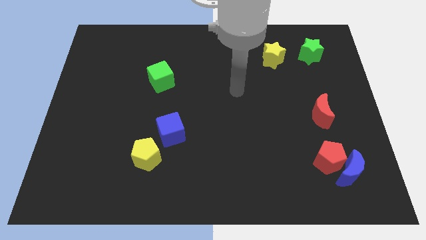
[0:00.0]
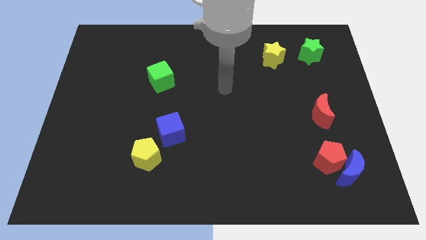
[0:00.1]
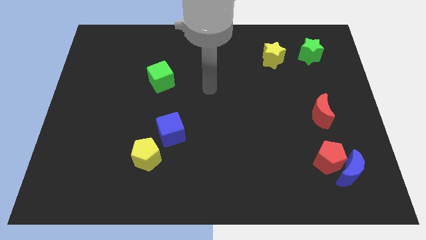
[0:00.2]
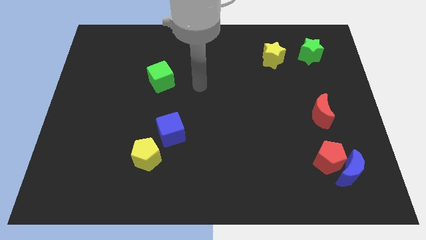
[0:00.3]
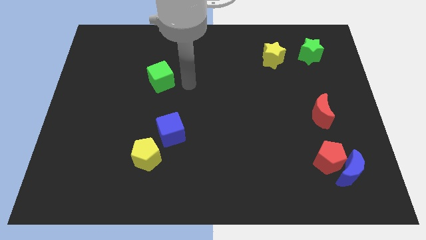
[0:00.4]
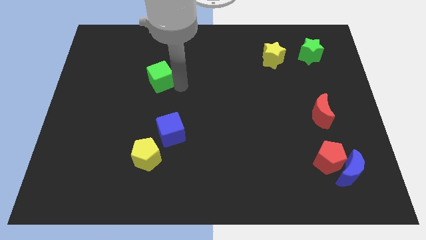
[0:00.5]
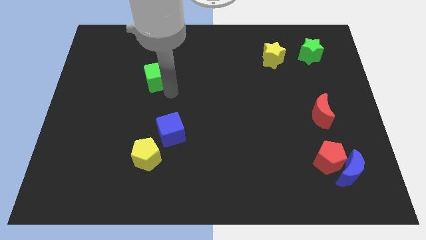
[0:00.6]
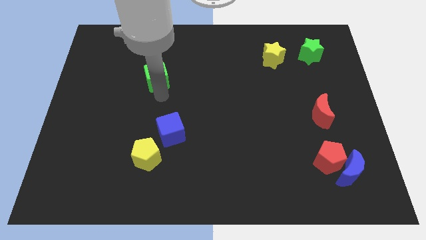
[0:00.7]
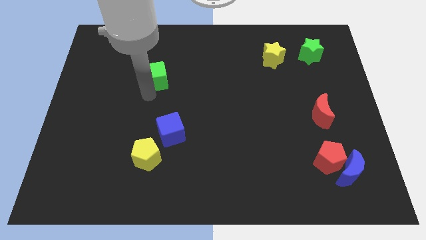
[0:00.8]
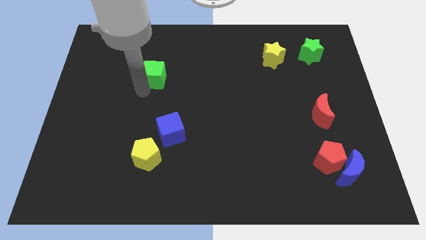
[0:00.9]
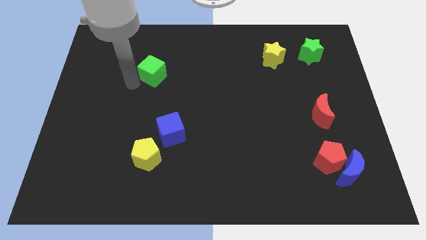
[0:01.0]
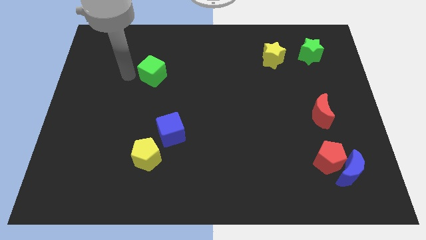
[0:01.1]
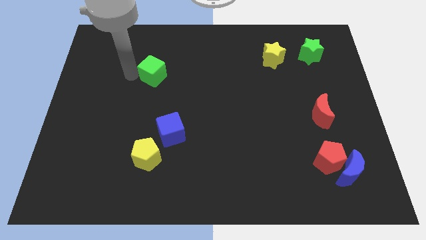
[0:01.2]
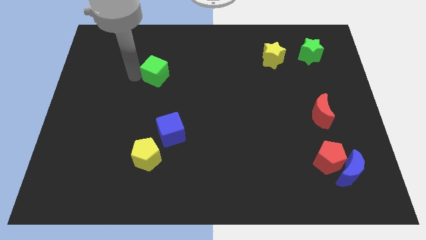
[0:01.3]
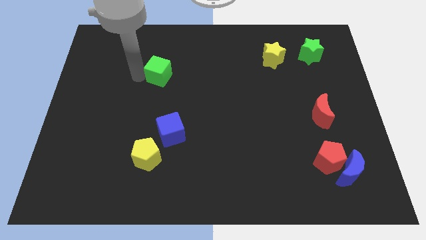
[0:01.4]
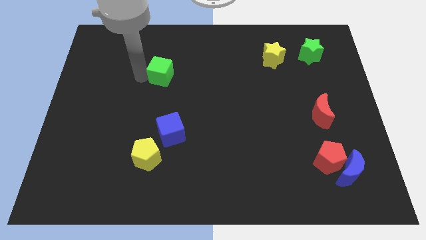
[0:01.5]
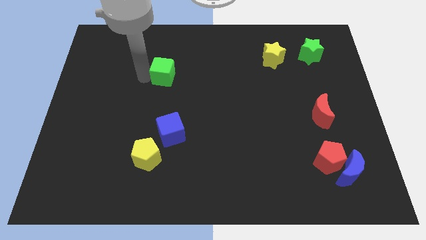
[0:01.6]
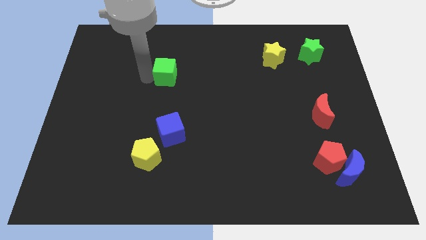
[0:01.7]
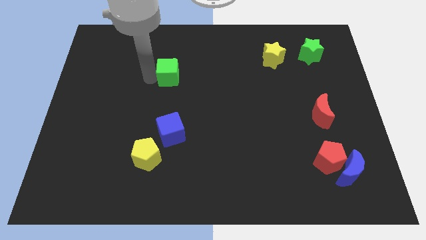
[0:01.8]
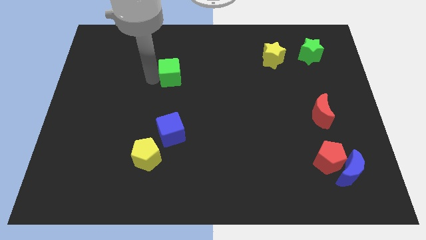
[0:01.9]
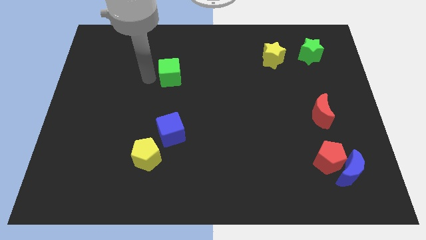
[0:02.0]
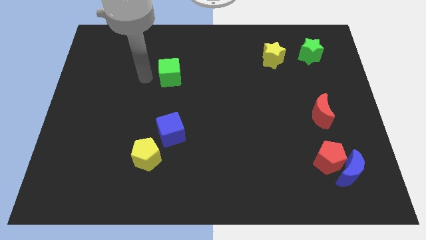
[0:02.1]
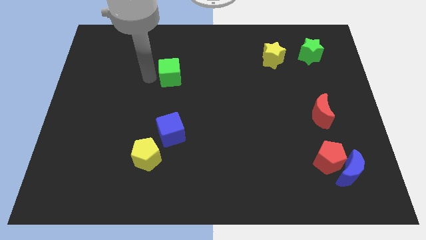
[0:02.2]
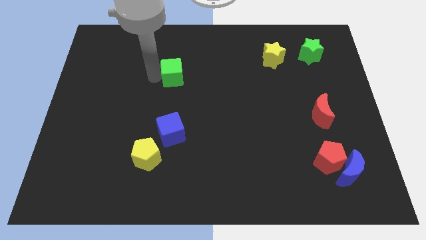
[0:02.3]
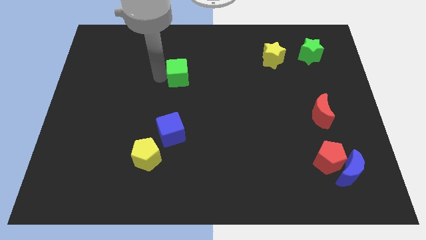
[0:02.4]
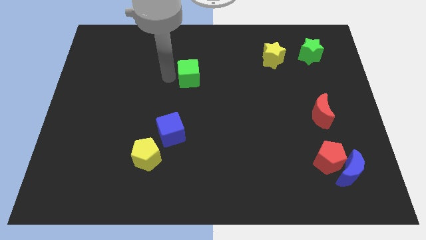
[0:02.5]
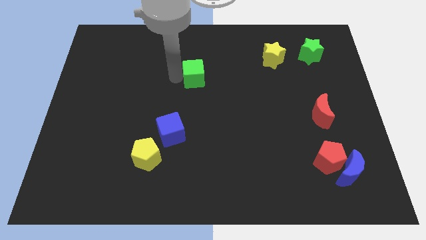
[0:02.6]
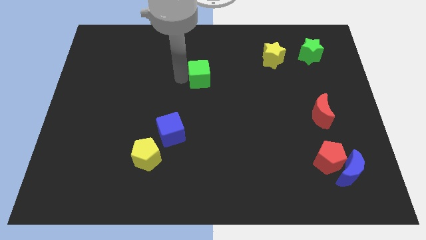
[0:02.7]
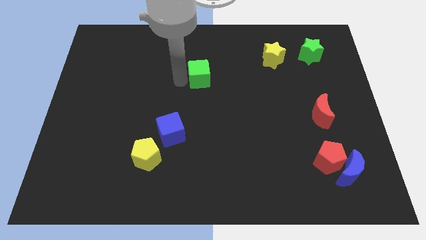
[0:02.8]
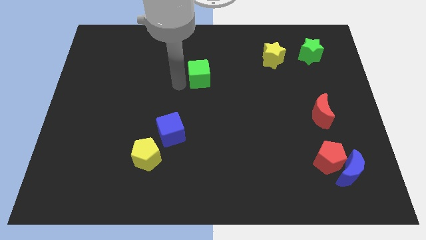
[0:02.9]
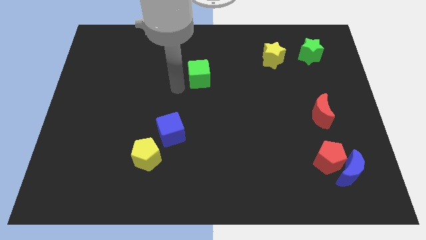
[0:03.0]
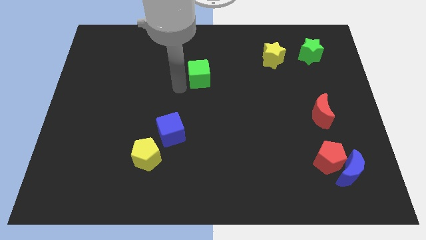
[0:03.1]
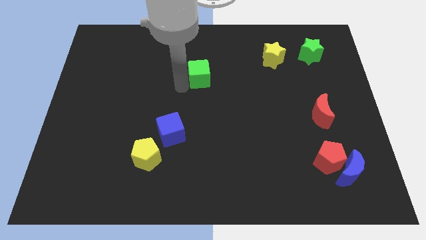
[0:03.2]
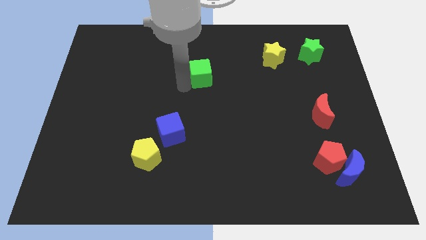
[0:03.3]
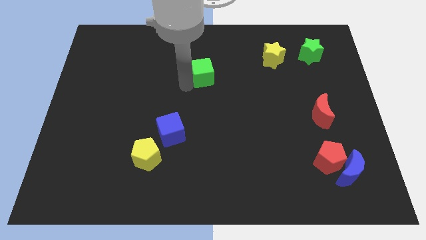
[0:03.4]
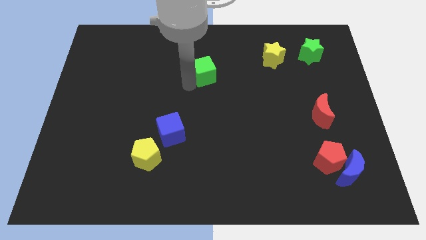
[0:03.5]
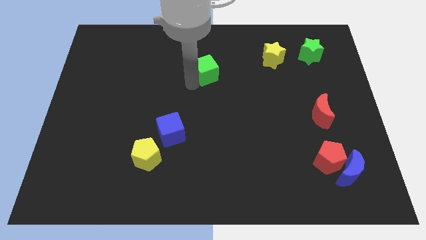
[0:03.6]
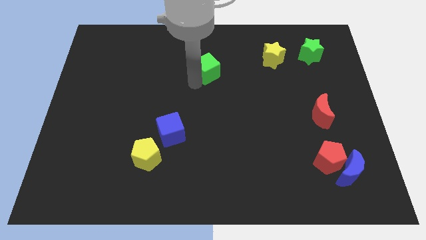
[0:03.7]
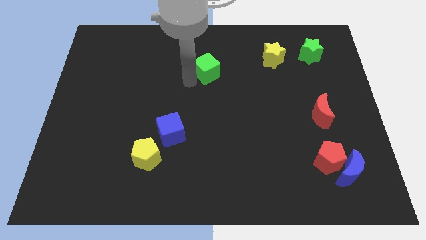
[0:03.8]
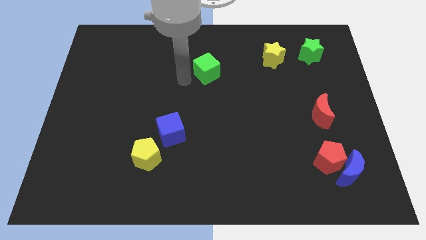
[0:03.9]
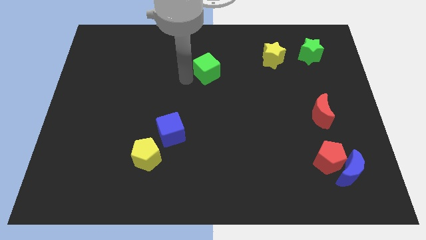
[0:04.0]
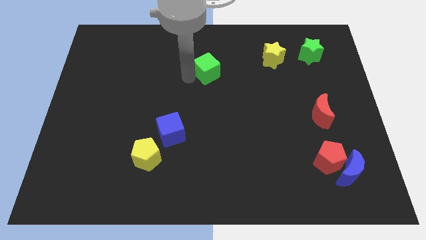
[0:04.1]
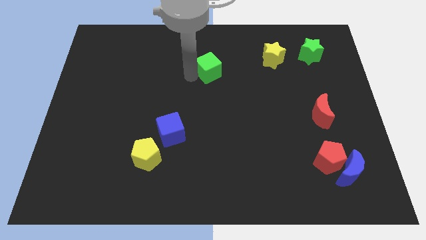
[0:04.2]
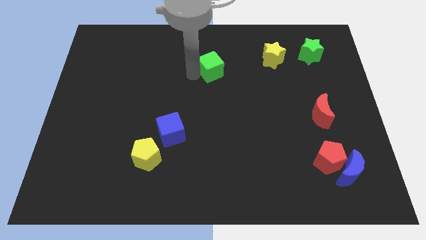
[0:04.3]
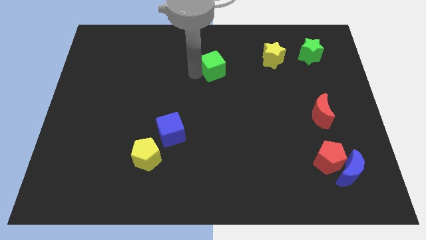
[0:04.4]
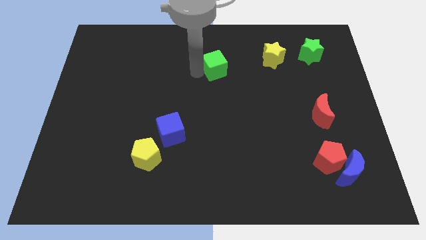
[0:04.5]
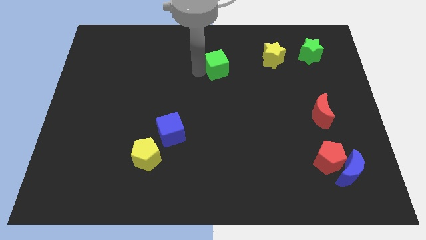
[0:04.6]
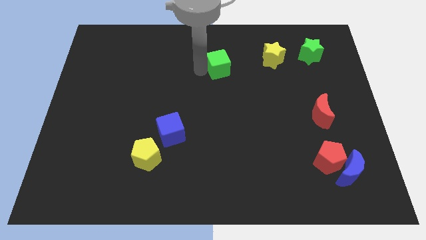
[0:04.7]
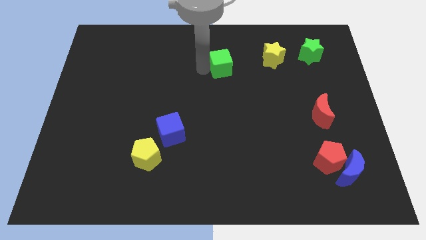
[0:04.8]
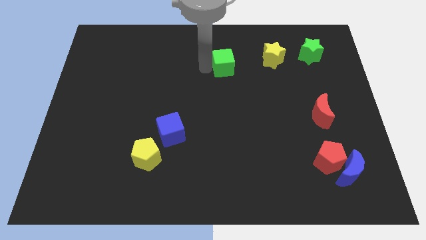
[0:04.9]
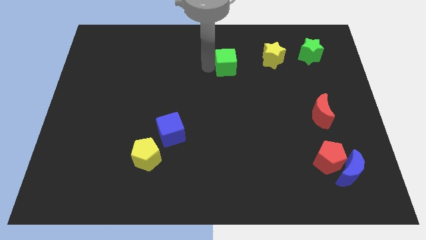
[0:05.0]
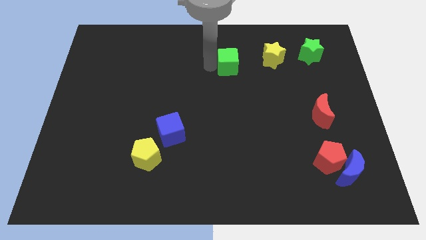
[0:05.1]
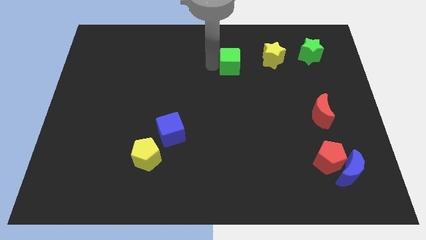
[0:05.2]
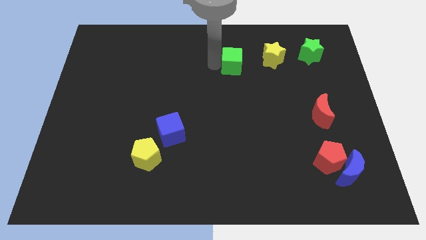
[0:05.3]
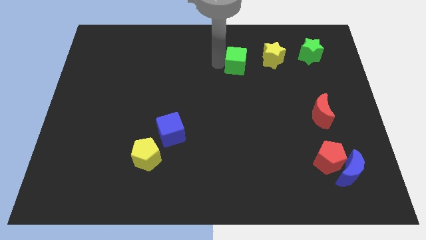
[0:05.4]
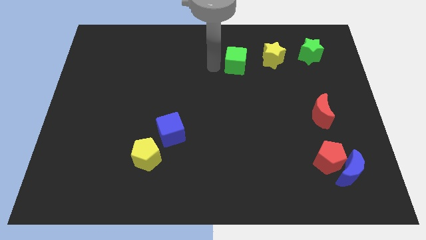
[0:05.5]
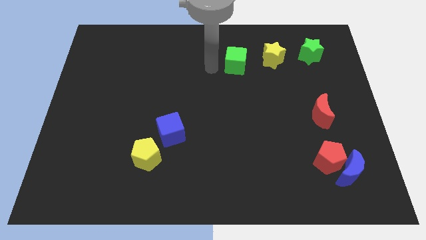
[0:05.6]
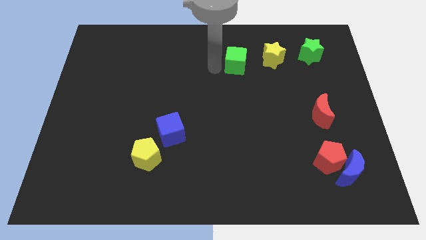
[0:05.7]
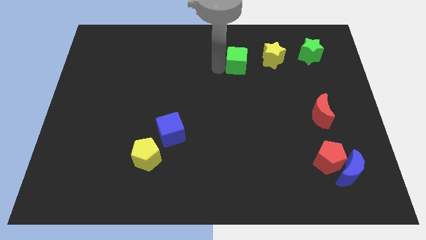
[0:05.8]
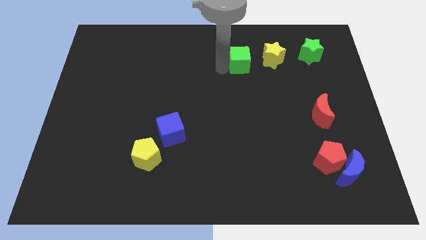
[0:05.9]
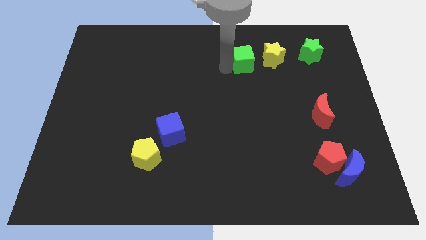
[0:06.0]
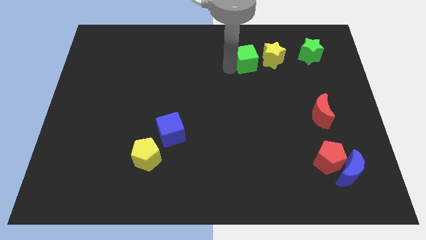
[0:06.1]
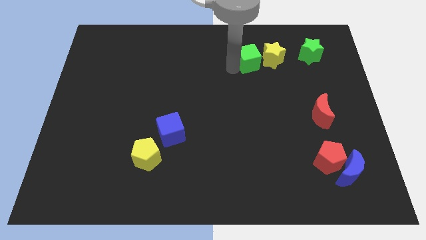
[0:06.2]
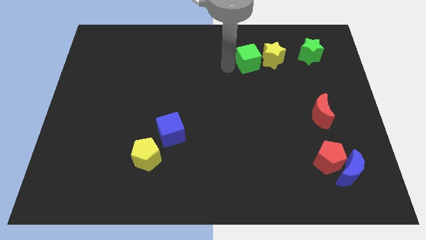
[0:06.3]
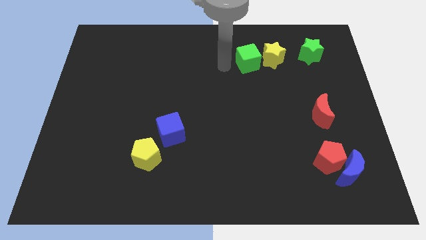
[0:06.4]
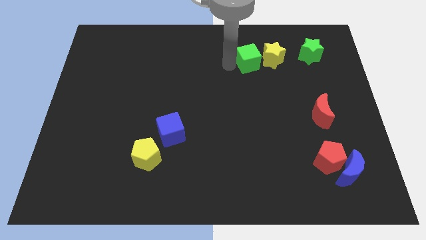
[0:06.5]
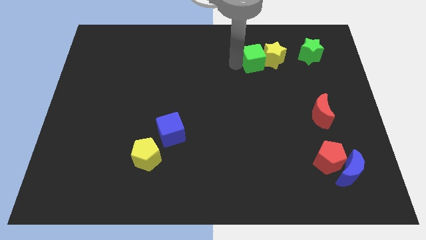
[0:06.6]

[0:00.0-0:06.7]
slide the green cube towards the yellow star
